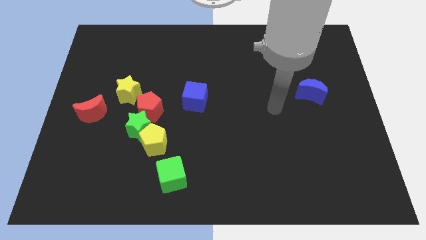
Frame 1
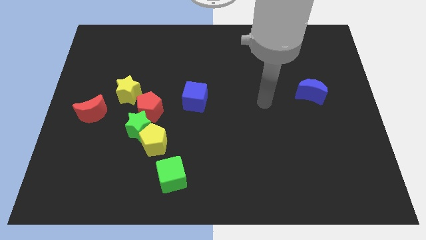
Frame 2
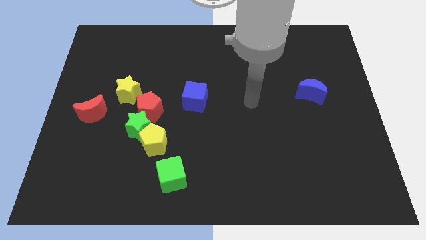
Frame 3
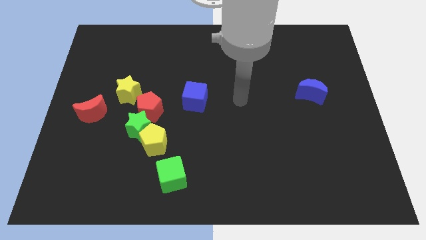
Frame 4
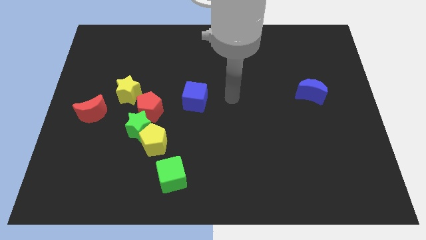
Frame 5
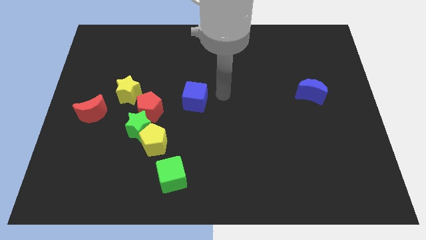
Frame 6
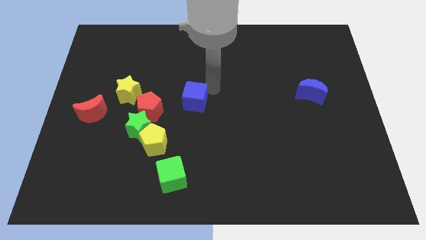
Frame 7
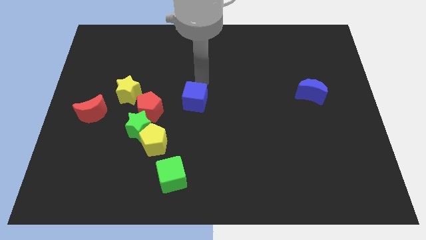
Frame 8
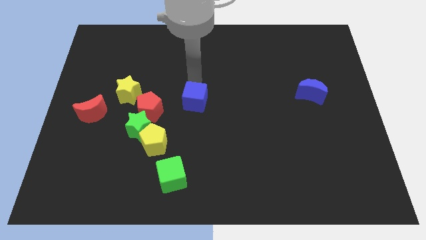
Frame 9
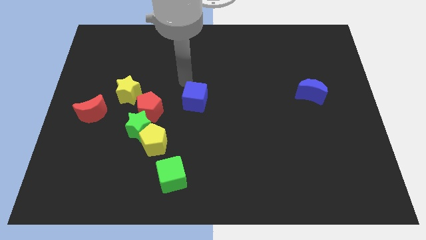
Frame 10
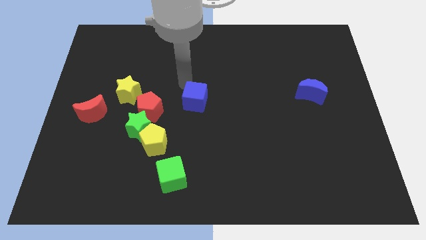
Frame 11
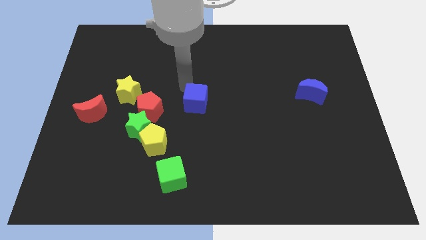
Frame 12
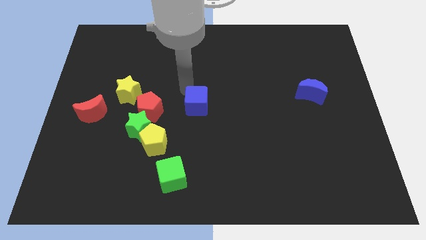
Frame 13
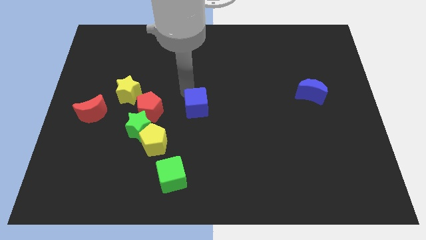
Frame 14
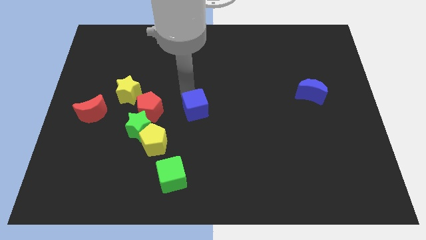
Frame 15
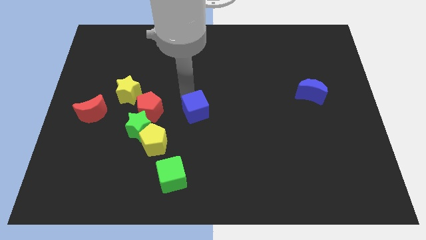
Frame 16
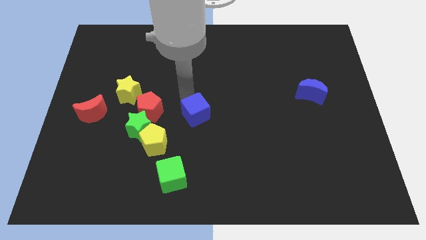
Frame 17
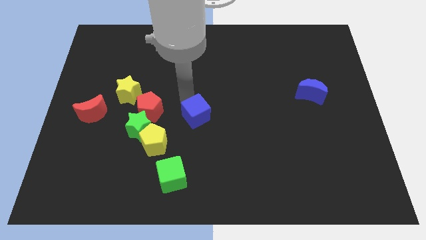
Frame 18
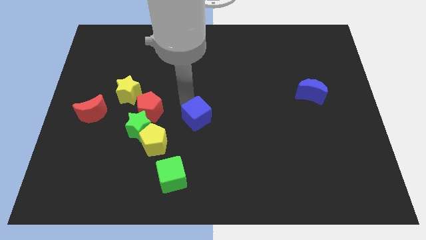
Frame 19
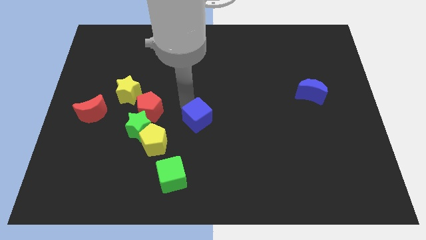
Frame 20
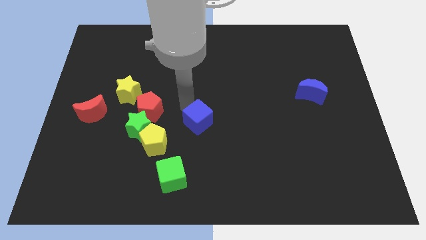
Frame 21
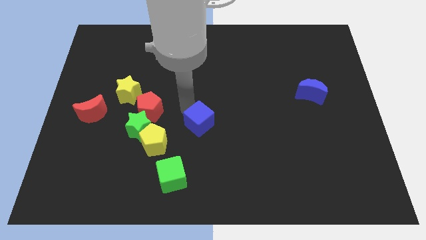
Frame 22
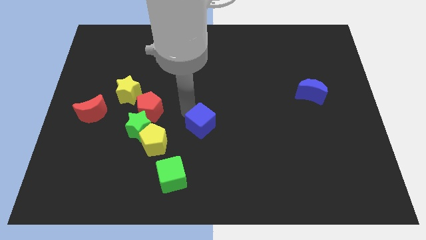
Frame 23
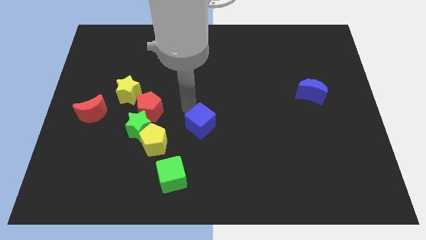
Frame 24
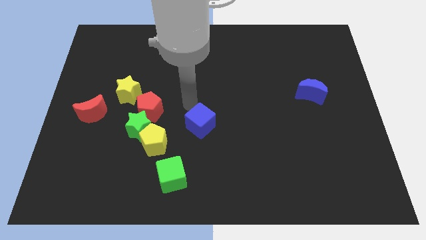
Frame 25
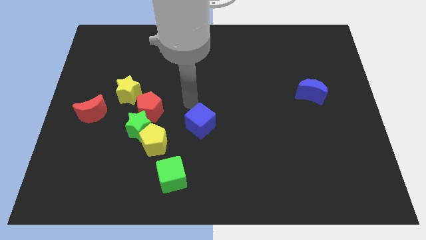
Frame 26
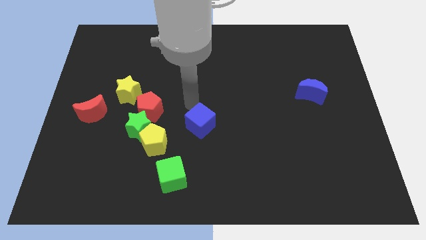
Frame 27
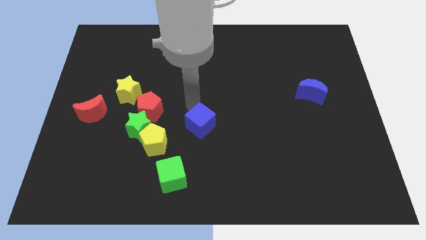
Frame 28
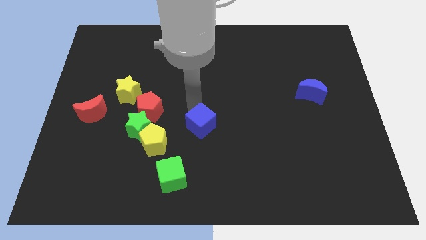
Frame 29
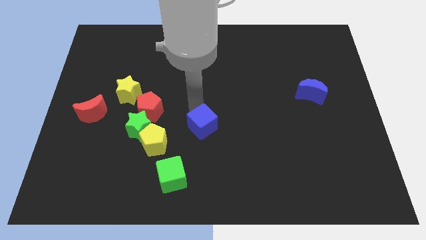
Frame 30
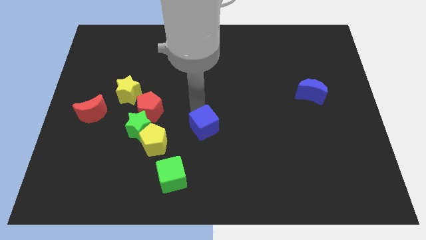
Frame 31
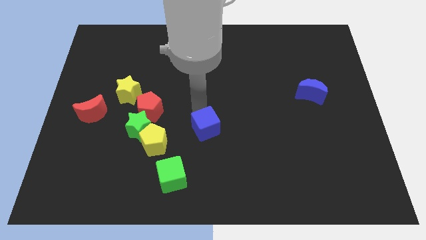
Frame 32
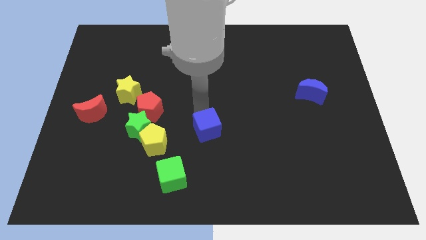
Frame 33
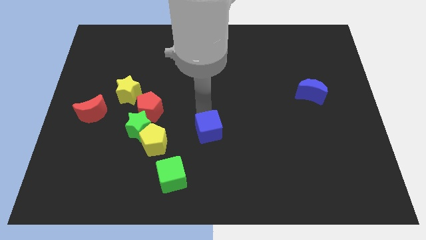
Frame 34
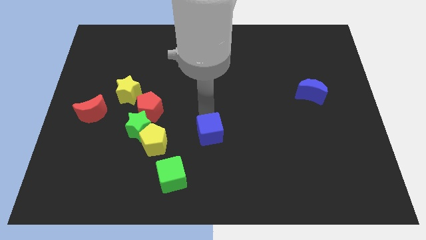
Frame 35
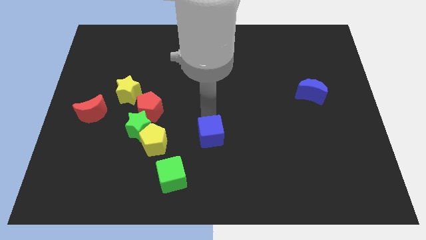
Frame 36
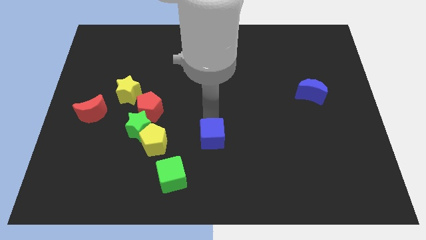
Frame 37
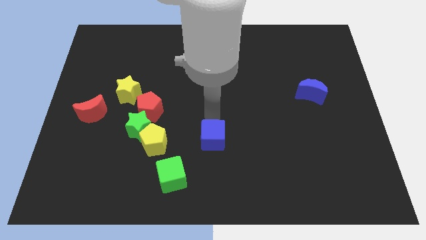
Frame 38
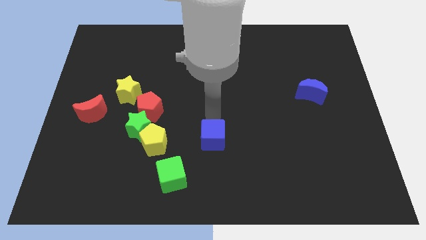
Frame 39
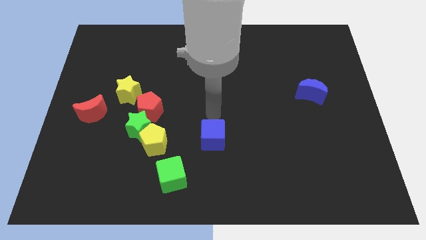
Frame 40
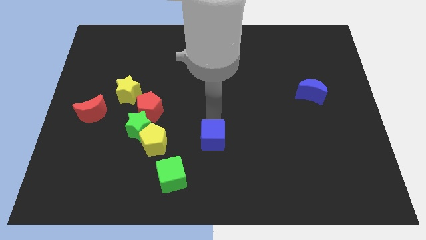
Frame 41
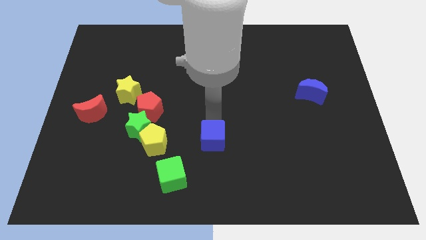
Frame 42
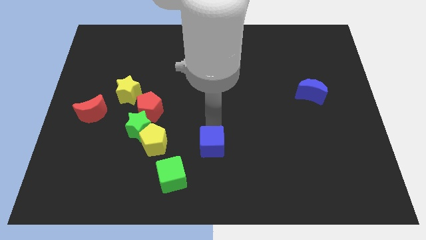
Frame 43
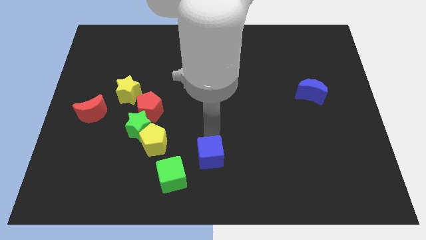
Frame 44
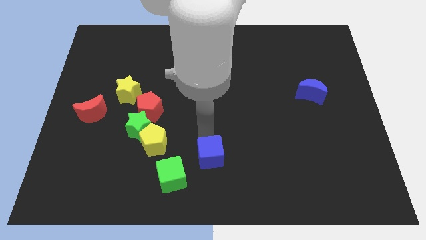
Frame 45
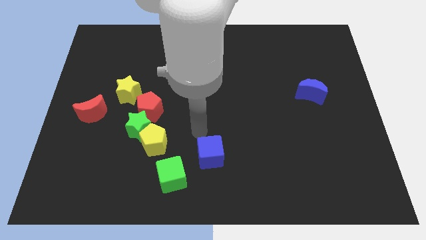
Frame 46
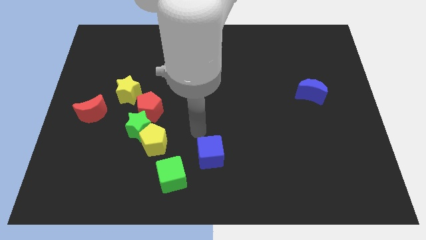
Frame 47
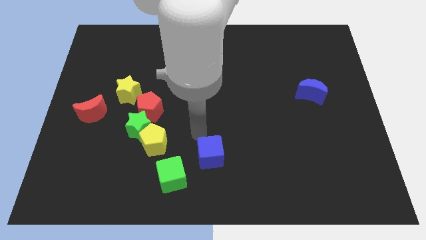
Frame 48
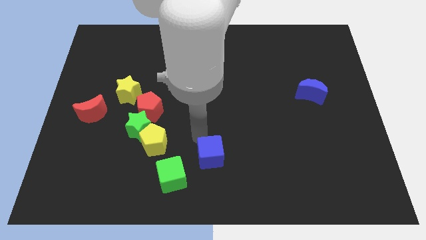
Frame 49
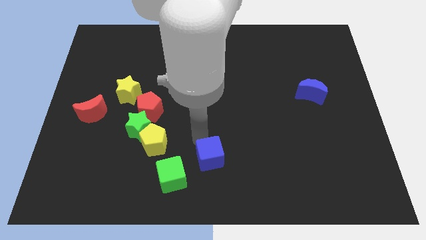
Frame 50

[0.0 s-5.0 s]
push the blue cube to the right side of the green cube
